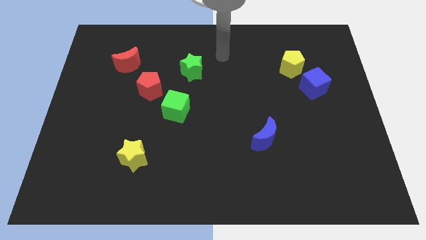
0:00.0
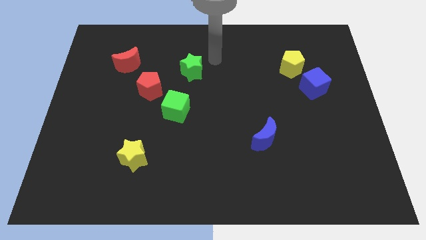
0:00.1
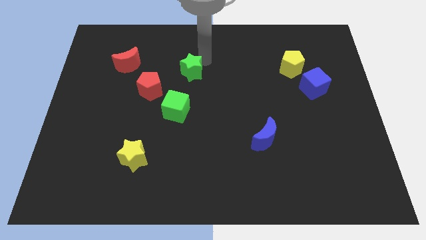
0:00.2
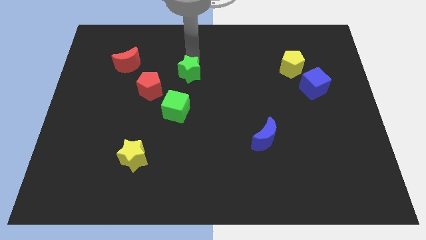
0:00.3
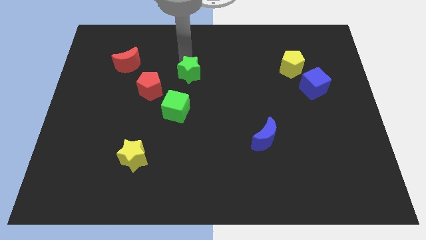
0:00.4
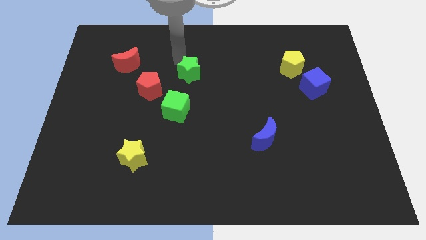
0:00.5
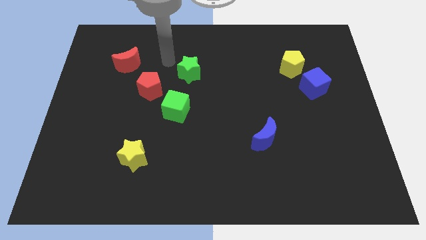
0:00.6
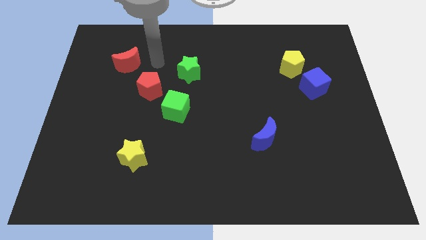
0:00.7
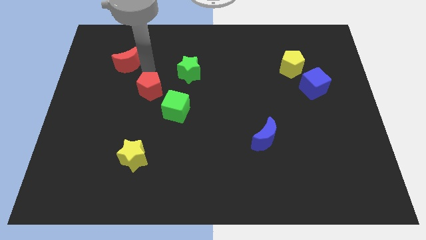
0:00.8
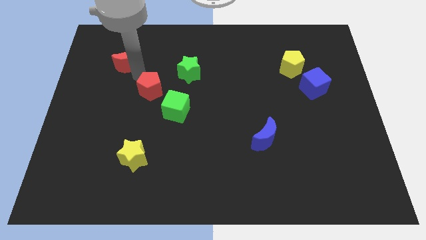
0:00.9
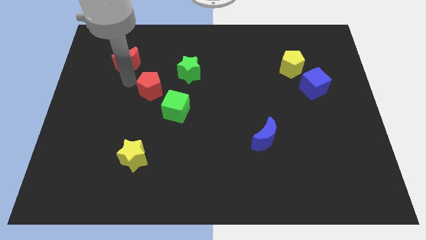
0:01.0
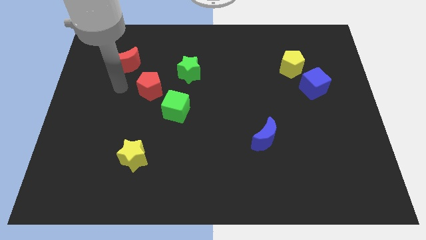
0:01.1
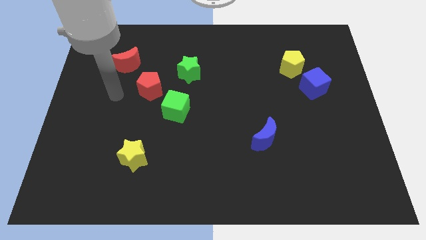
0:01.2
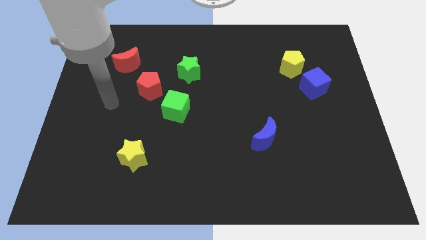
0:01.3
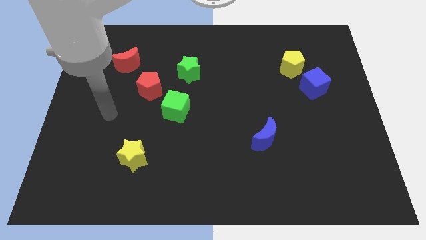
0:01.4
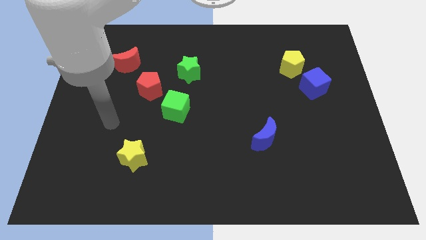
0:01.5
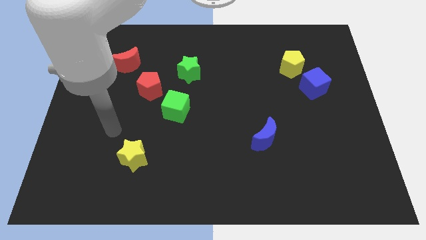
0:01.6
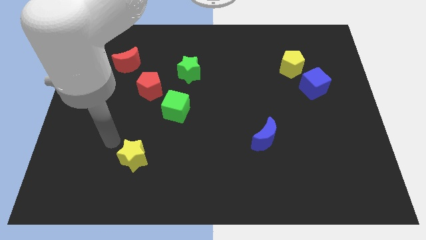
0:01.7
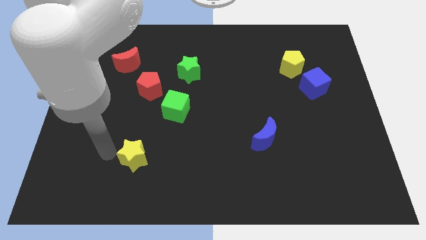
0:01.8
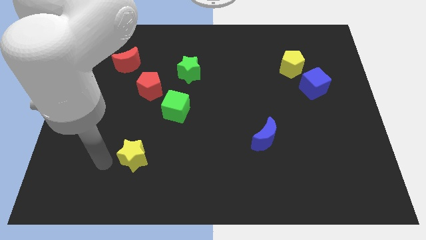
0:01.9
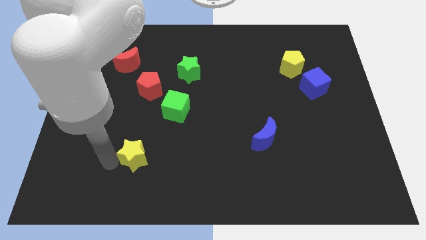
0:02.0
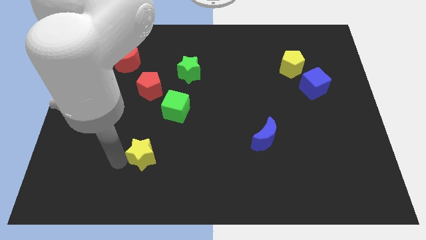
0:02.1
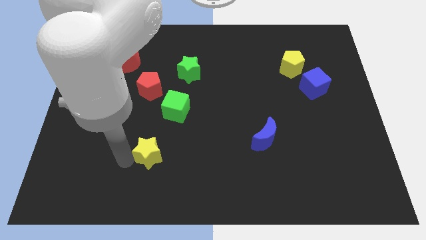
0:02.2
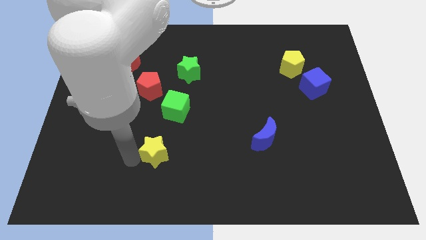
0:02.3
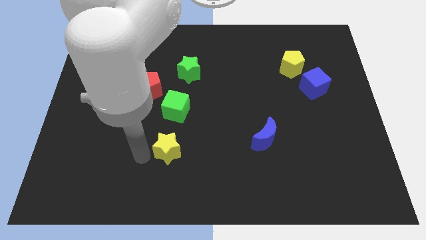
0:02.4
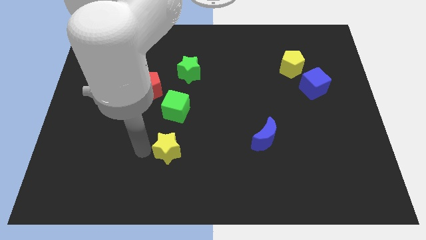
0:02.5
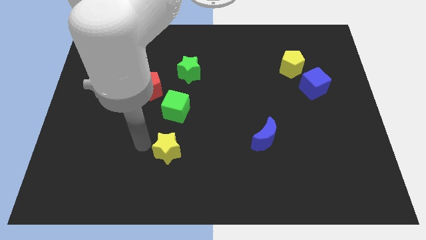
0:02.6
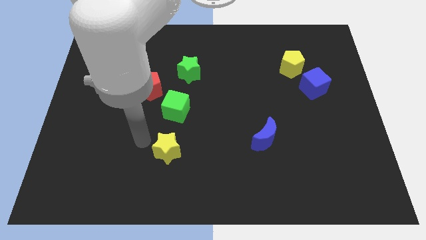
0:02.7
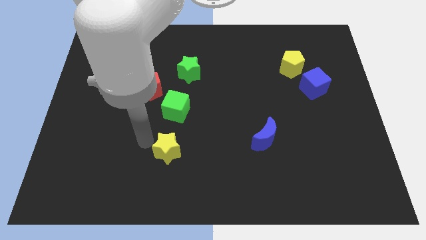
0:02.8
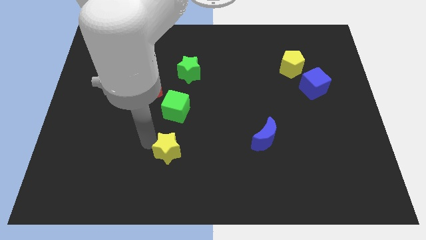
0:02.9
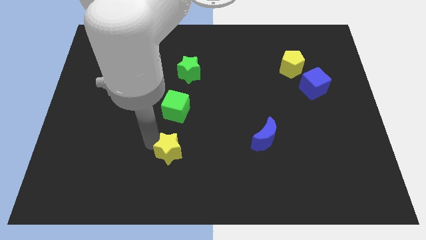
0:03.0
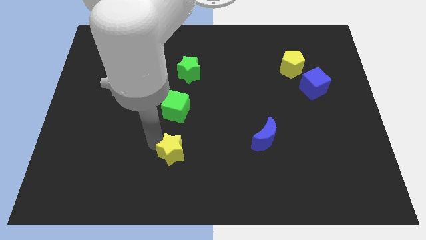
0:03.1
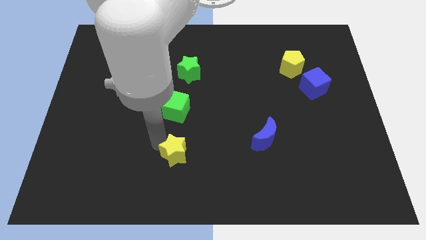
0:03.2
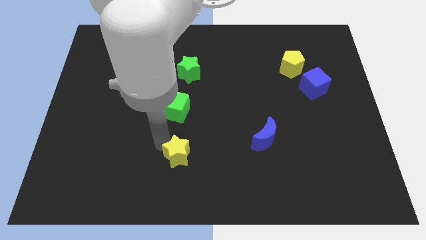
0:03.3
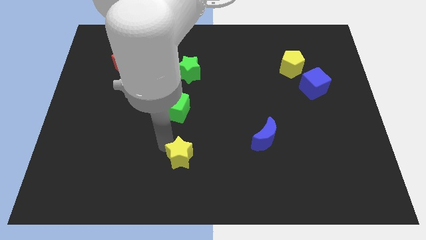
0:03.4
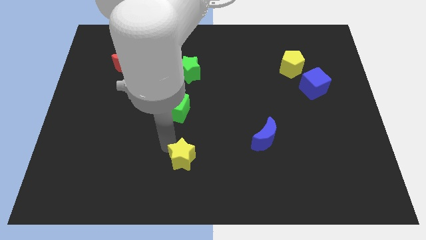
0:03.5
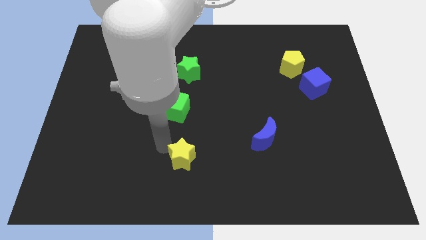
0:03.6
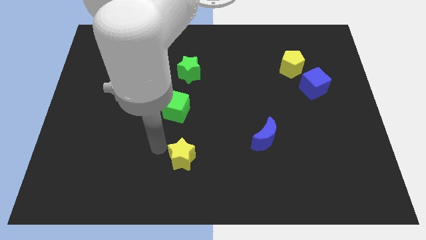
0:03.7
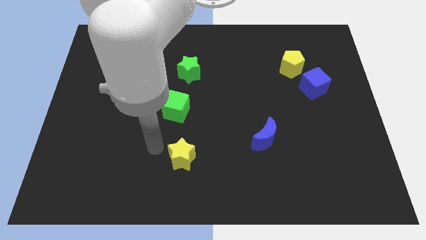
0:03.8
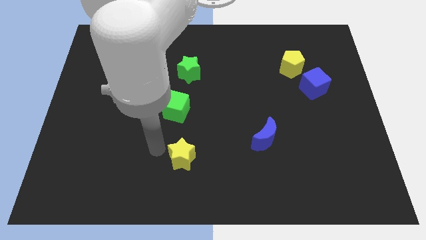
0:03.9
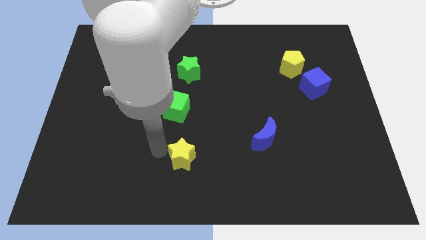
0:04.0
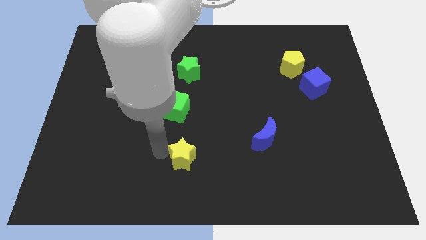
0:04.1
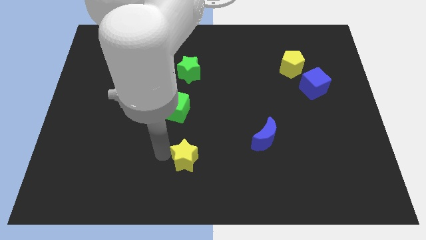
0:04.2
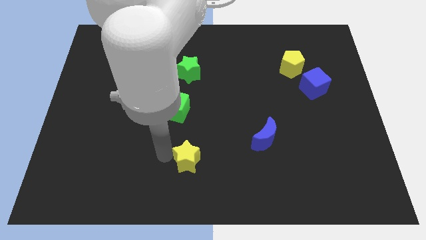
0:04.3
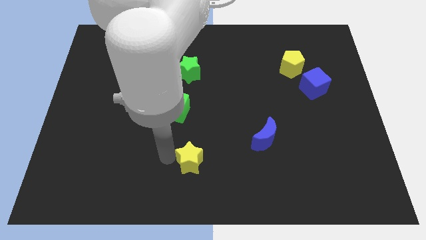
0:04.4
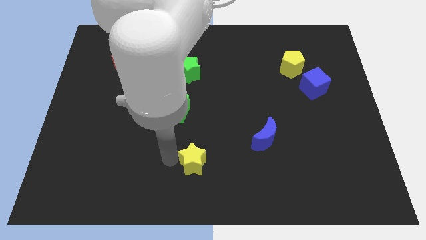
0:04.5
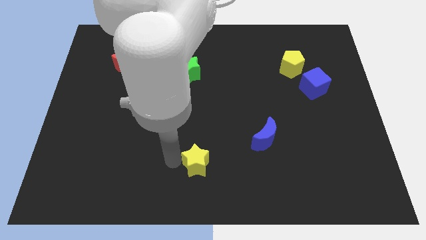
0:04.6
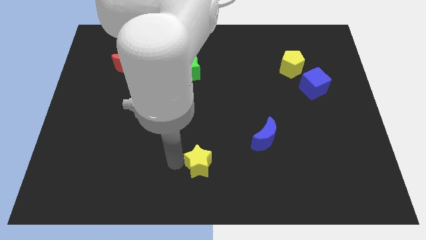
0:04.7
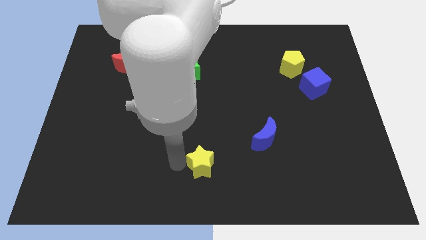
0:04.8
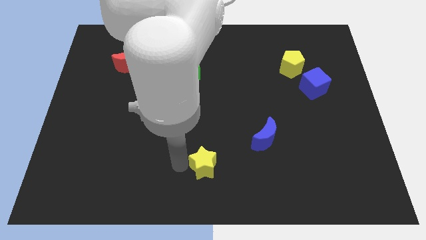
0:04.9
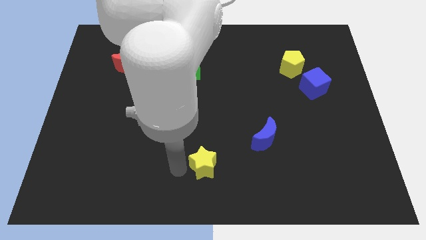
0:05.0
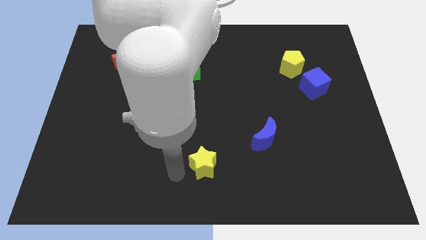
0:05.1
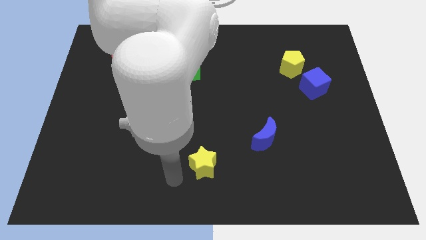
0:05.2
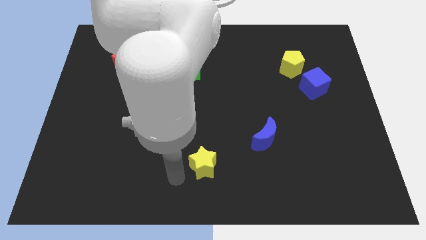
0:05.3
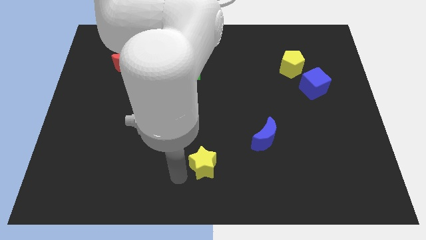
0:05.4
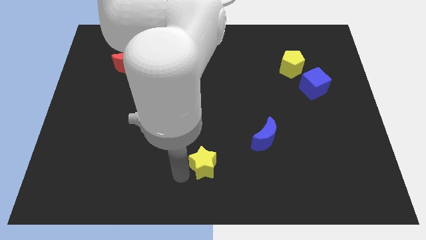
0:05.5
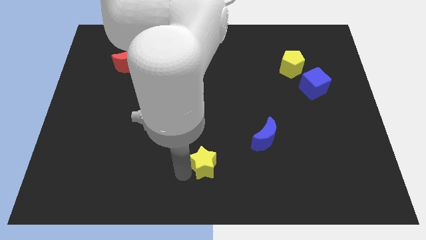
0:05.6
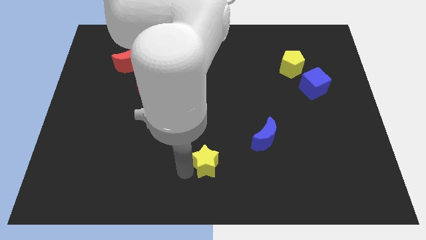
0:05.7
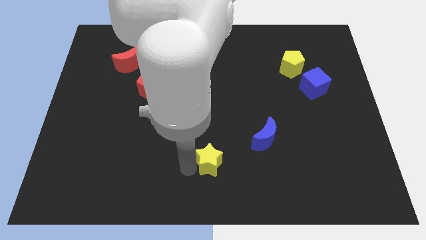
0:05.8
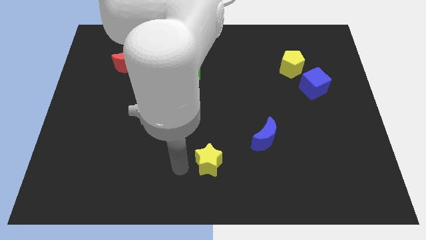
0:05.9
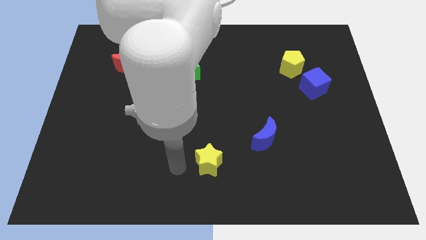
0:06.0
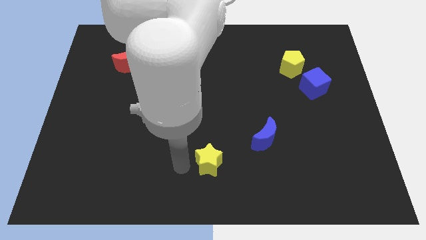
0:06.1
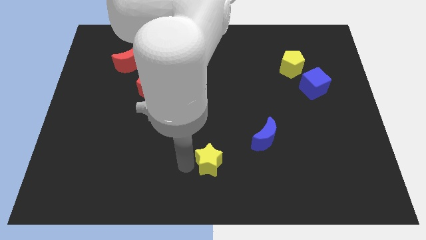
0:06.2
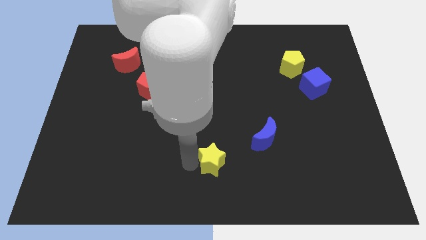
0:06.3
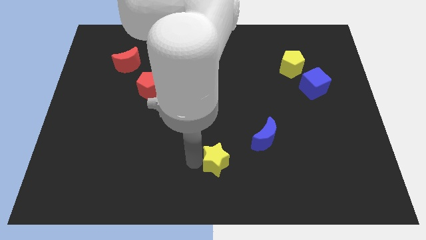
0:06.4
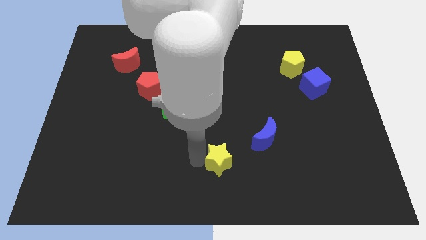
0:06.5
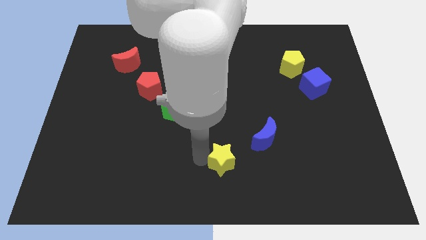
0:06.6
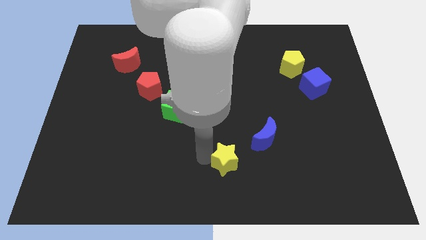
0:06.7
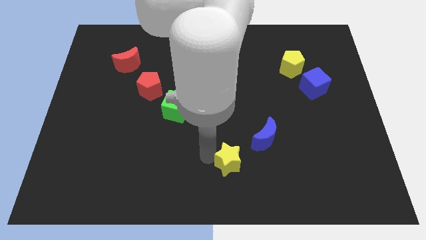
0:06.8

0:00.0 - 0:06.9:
push the yellow star to the right

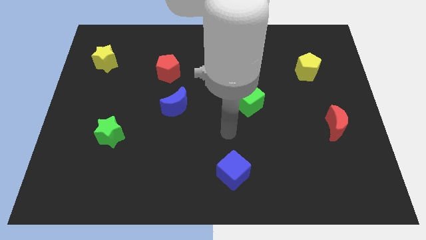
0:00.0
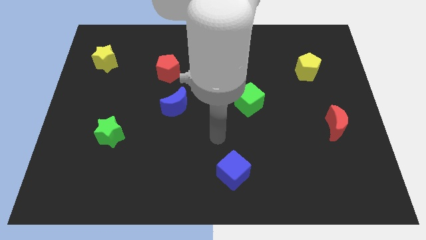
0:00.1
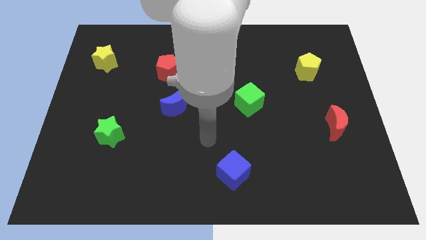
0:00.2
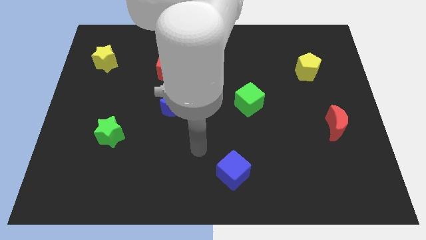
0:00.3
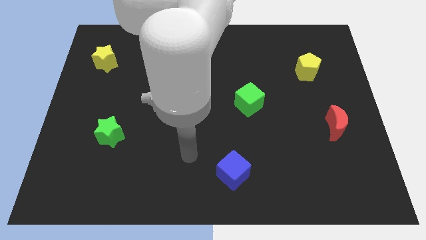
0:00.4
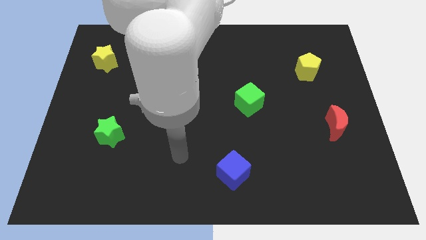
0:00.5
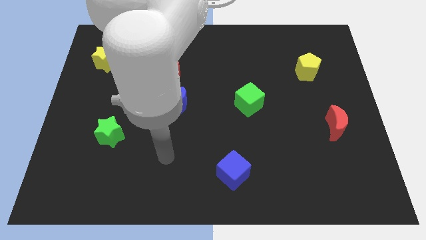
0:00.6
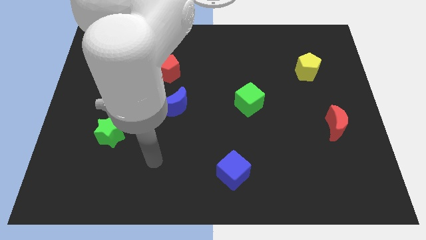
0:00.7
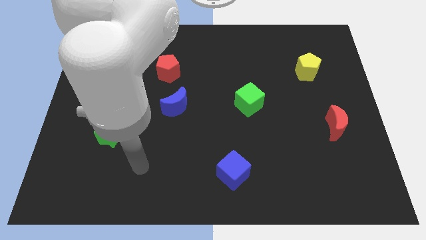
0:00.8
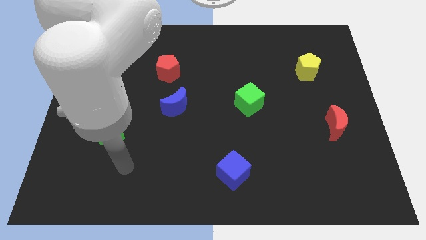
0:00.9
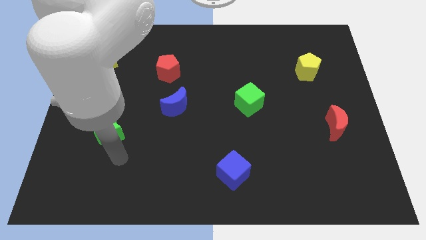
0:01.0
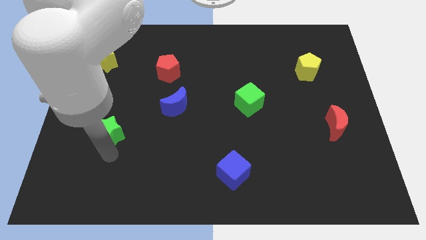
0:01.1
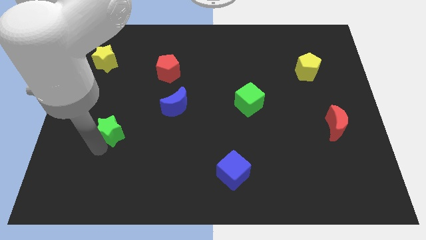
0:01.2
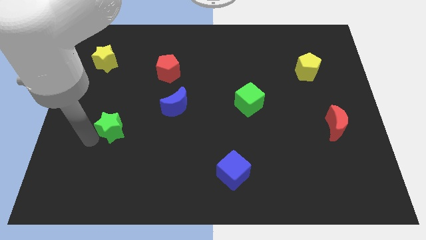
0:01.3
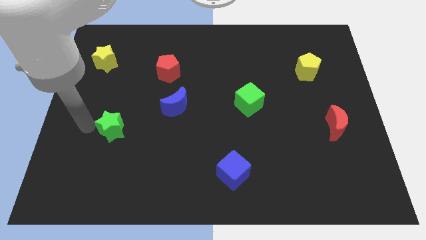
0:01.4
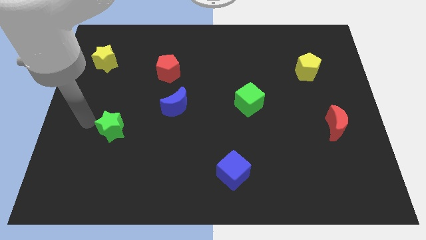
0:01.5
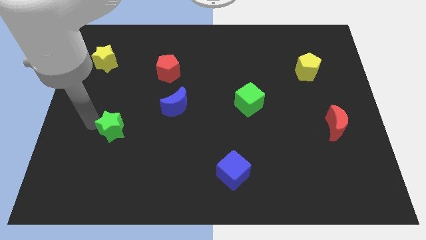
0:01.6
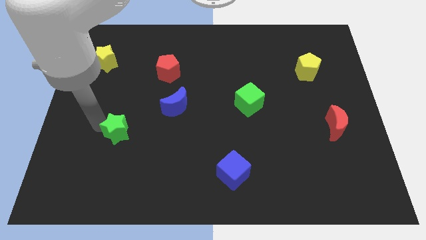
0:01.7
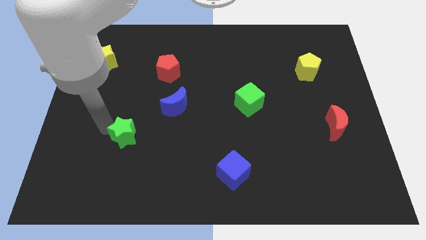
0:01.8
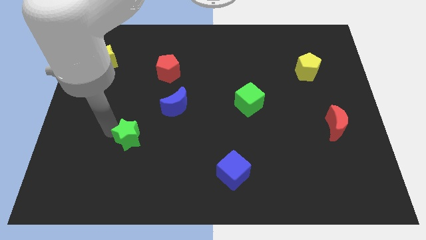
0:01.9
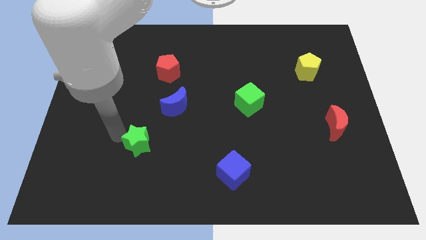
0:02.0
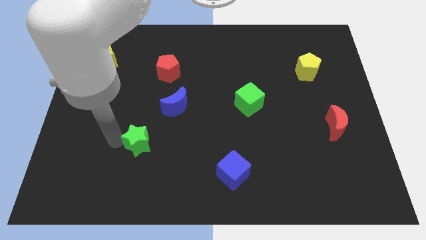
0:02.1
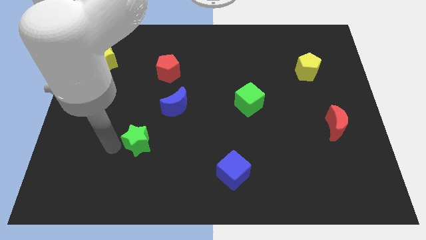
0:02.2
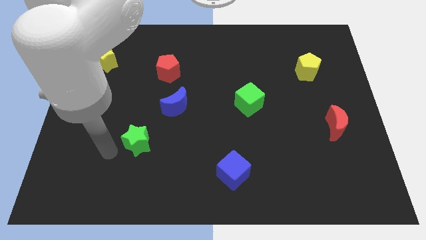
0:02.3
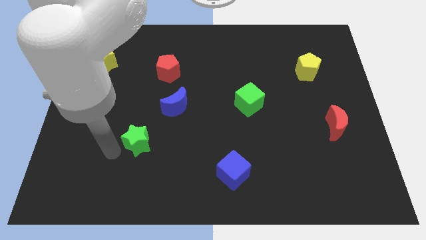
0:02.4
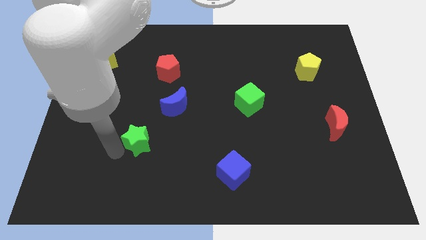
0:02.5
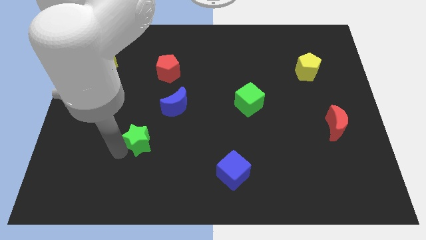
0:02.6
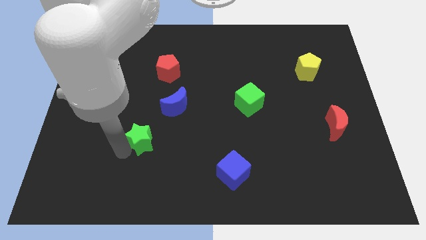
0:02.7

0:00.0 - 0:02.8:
move the green star slightly to the right
